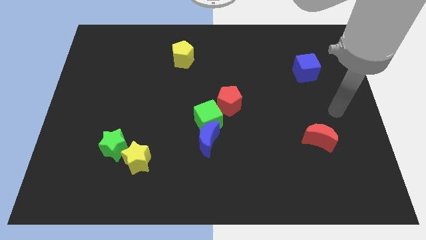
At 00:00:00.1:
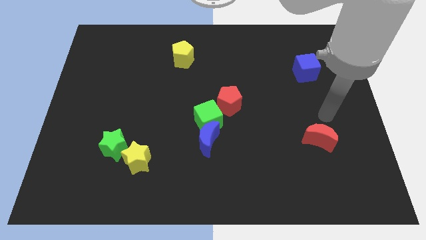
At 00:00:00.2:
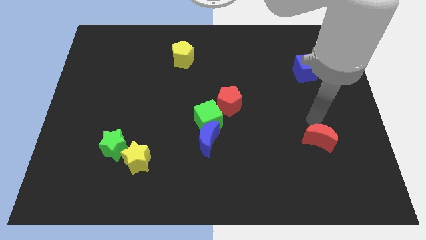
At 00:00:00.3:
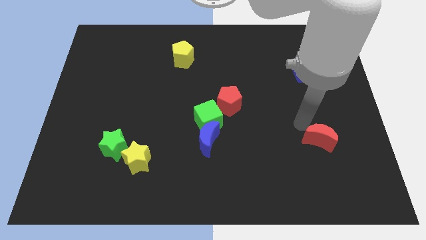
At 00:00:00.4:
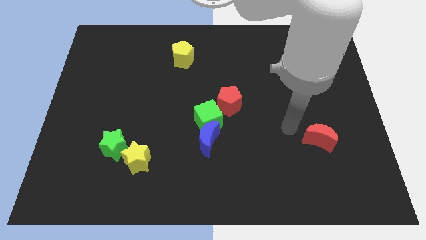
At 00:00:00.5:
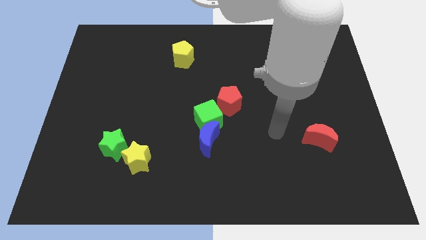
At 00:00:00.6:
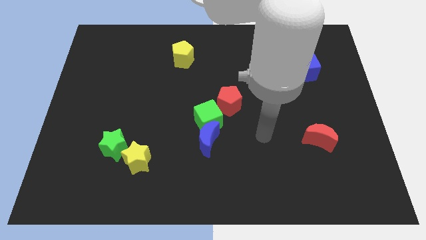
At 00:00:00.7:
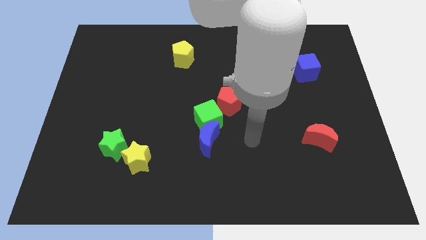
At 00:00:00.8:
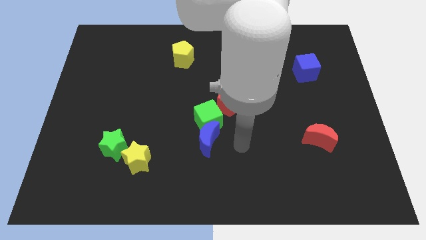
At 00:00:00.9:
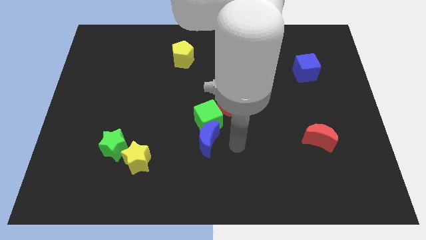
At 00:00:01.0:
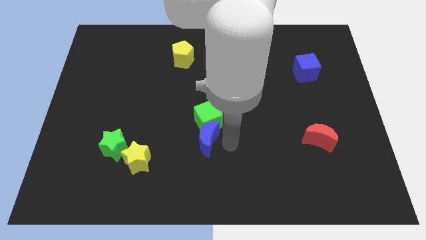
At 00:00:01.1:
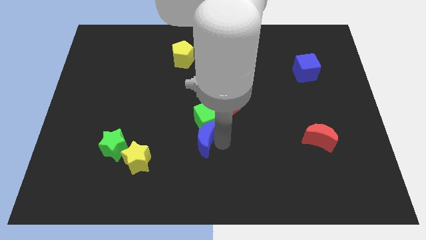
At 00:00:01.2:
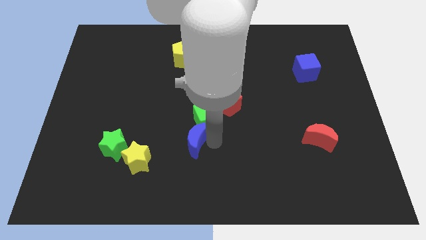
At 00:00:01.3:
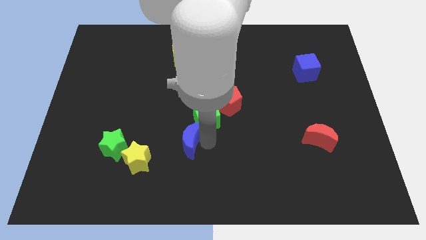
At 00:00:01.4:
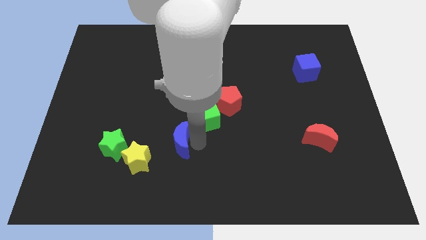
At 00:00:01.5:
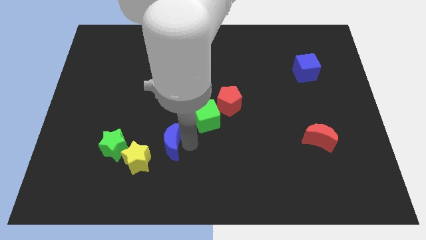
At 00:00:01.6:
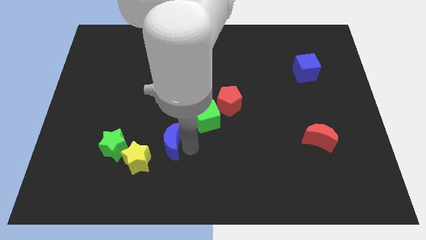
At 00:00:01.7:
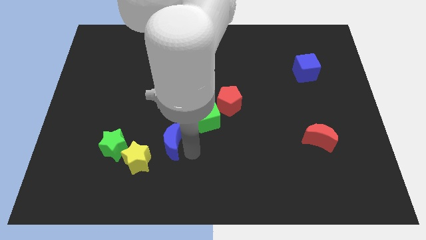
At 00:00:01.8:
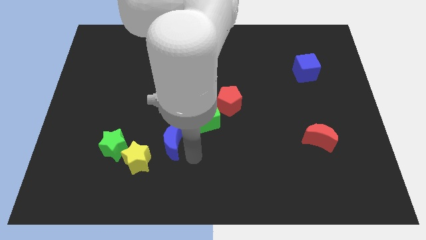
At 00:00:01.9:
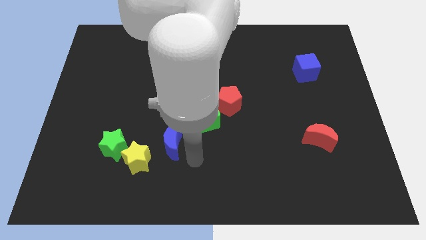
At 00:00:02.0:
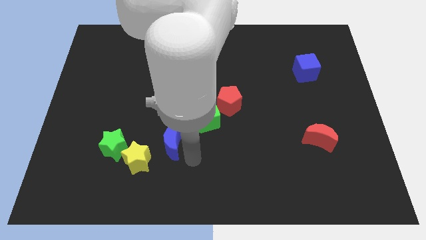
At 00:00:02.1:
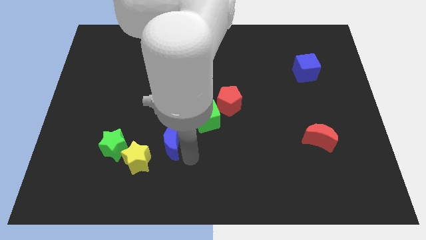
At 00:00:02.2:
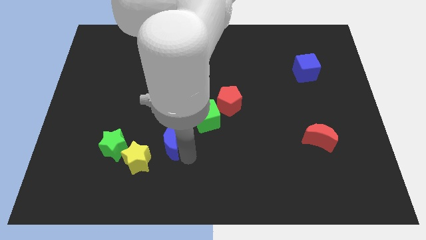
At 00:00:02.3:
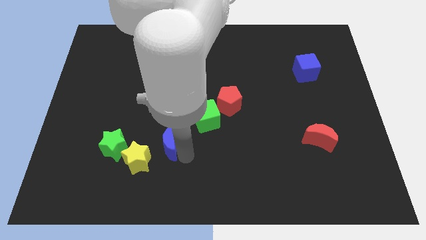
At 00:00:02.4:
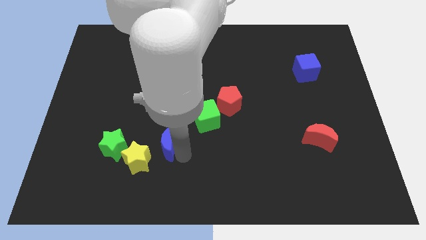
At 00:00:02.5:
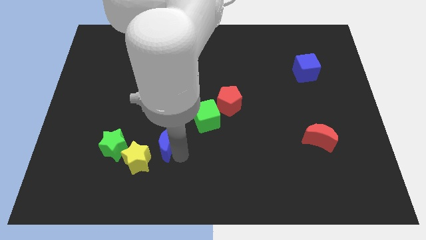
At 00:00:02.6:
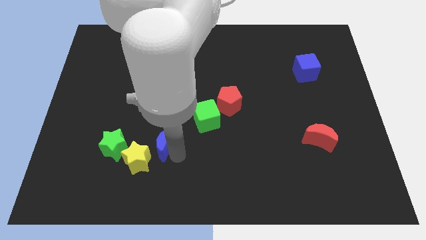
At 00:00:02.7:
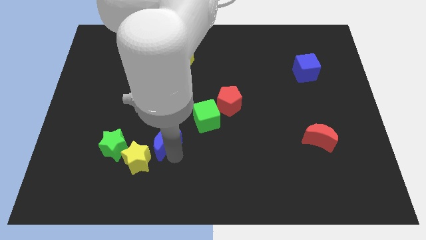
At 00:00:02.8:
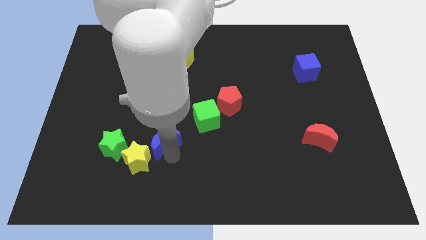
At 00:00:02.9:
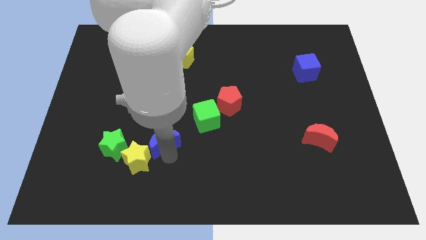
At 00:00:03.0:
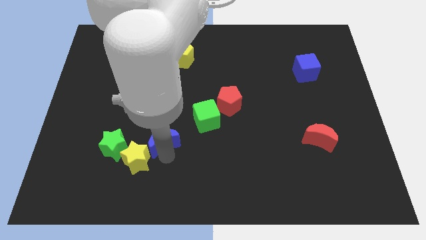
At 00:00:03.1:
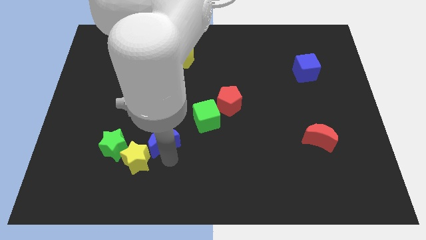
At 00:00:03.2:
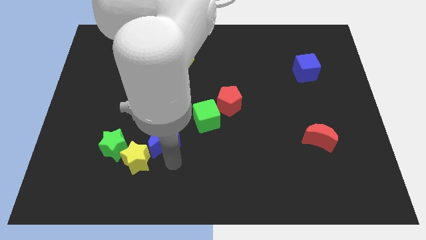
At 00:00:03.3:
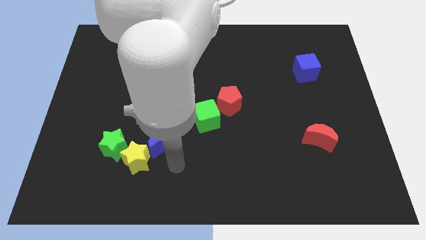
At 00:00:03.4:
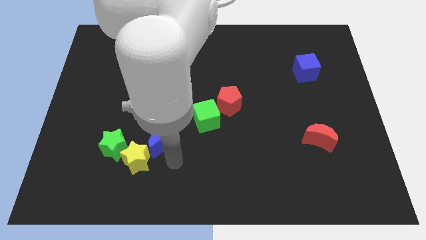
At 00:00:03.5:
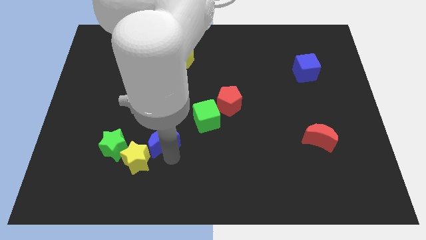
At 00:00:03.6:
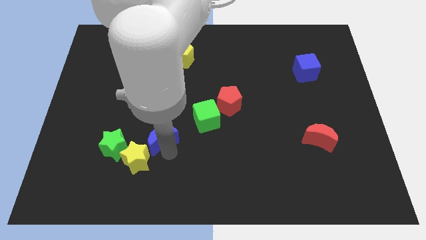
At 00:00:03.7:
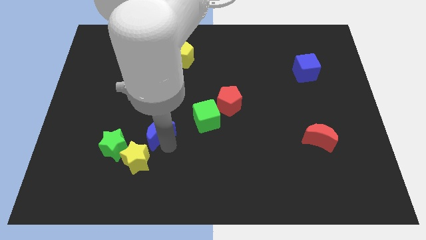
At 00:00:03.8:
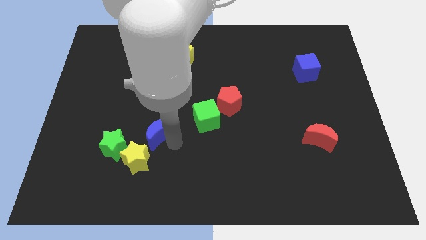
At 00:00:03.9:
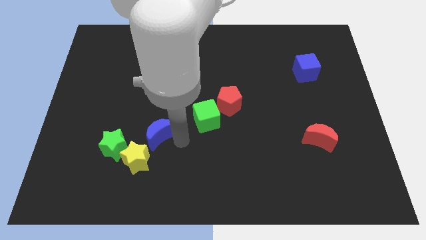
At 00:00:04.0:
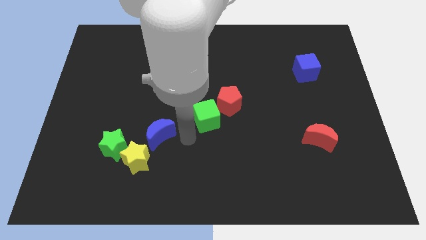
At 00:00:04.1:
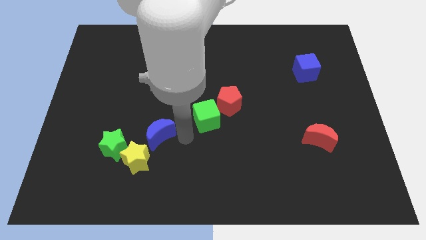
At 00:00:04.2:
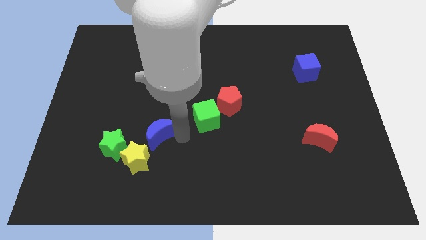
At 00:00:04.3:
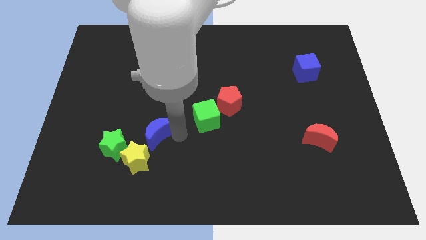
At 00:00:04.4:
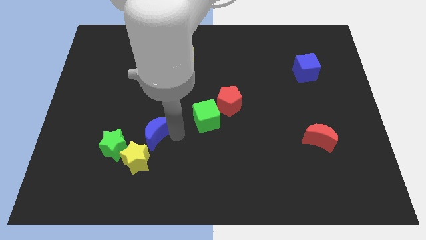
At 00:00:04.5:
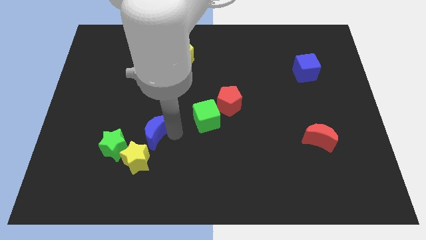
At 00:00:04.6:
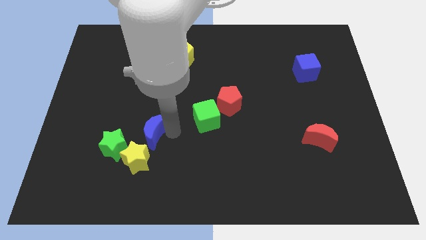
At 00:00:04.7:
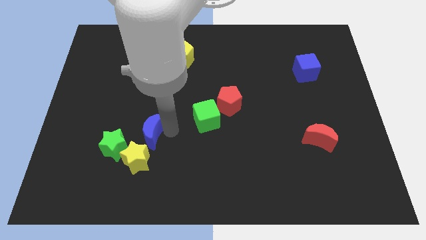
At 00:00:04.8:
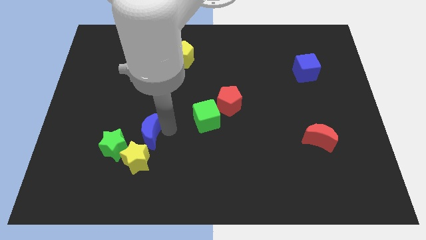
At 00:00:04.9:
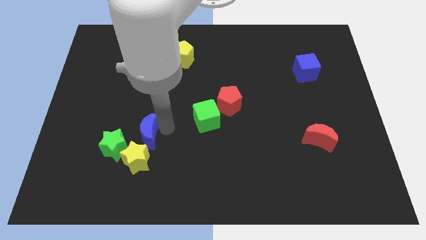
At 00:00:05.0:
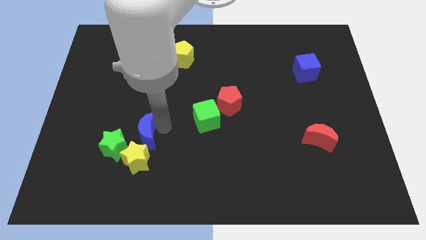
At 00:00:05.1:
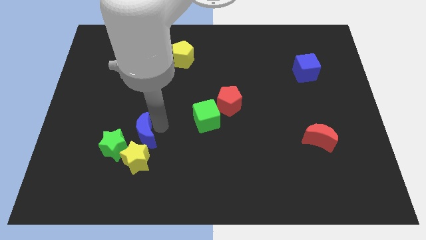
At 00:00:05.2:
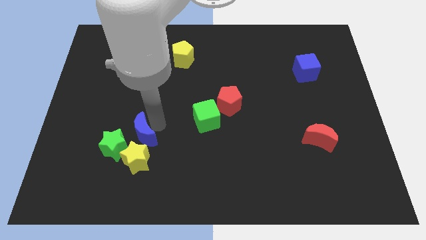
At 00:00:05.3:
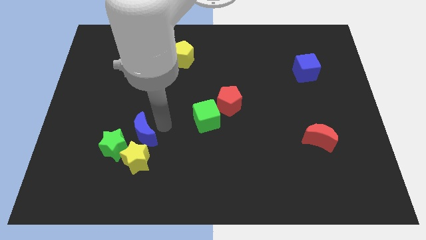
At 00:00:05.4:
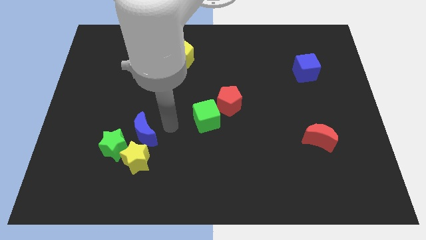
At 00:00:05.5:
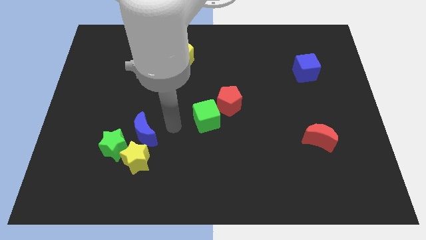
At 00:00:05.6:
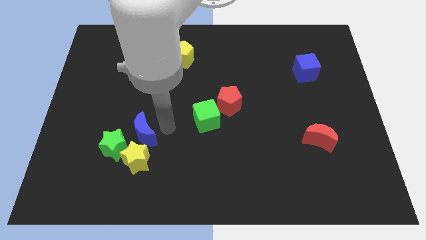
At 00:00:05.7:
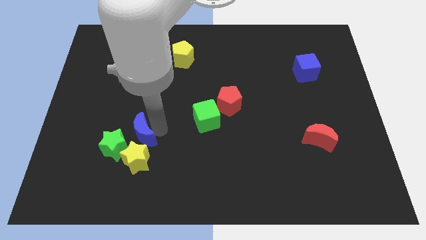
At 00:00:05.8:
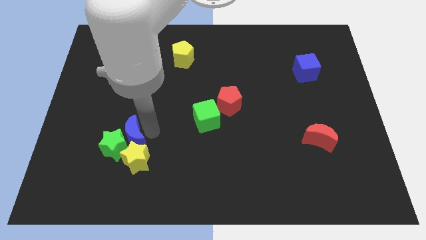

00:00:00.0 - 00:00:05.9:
push the blue moon diagonally up and to the left of the yellow star
